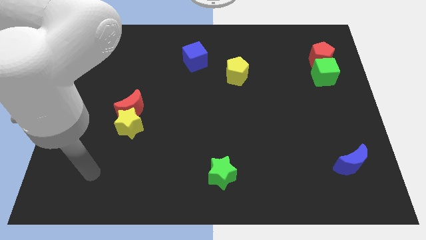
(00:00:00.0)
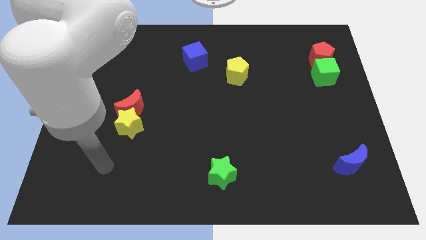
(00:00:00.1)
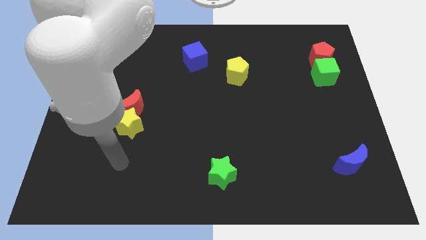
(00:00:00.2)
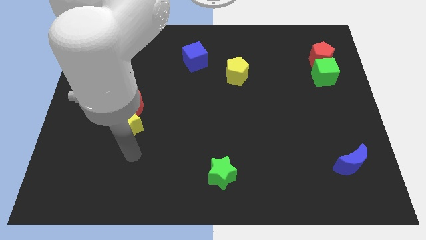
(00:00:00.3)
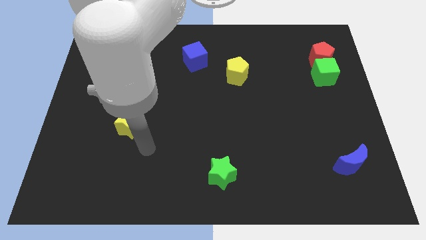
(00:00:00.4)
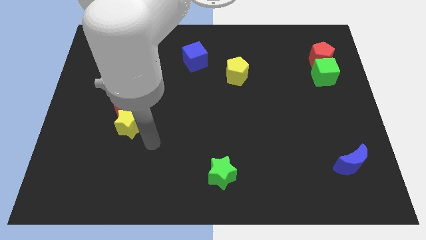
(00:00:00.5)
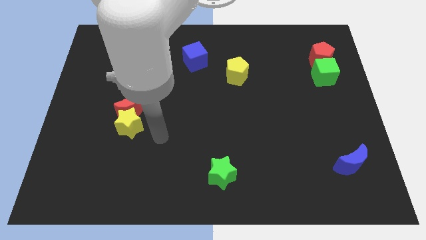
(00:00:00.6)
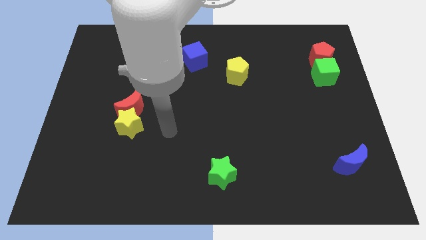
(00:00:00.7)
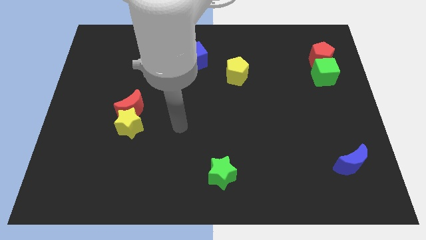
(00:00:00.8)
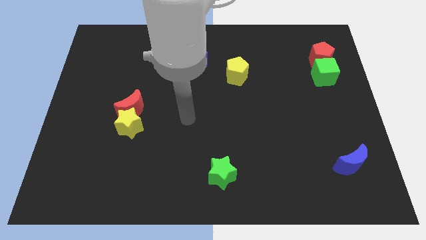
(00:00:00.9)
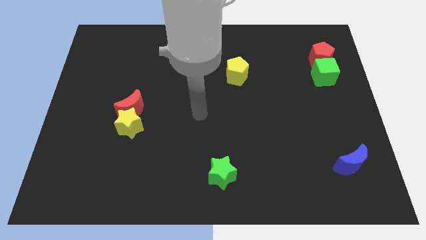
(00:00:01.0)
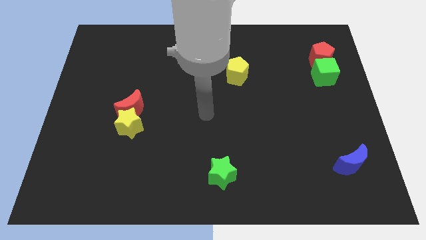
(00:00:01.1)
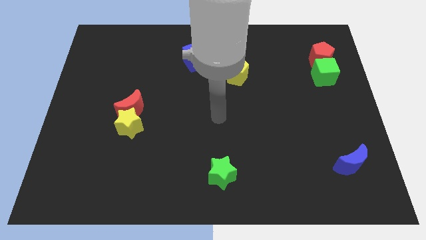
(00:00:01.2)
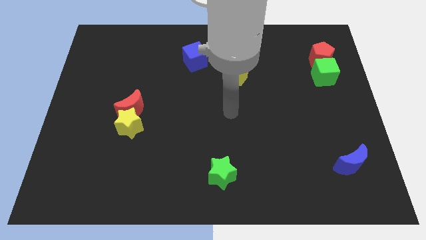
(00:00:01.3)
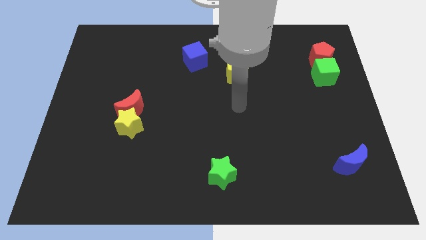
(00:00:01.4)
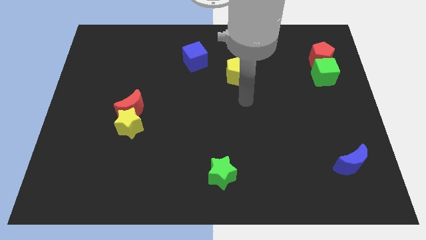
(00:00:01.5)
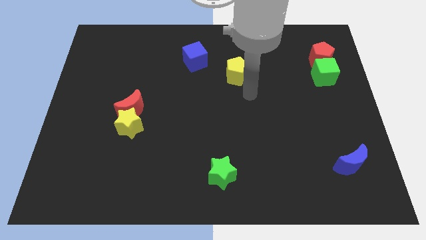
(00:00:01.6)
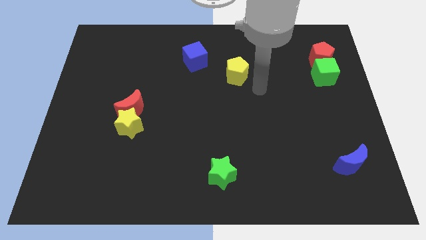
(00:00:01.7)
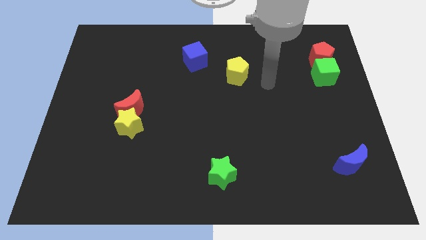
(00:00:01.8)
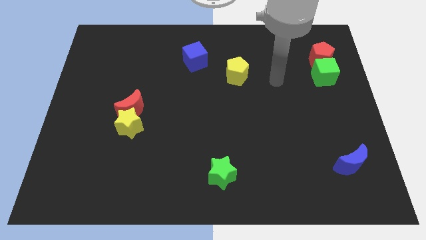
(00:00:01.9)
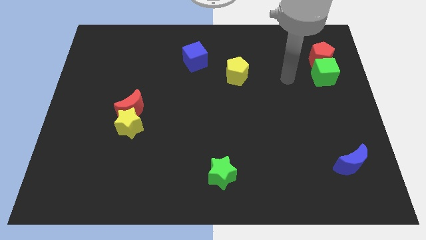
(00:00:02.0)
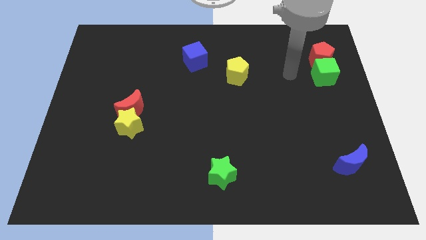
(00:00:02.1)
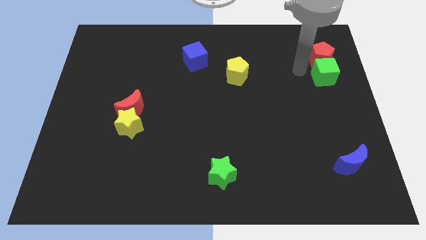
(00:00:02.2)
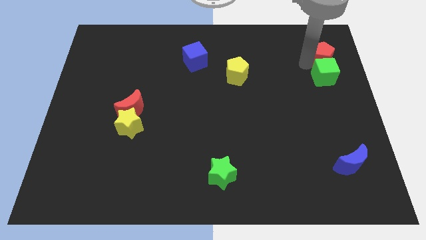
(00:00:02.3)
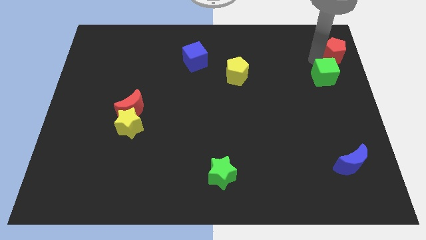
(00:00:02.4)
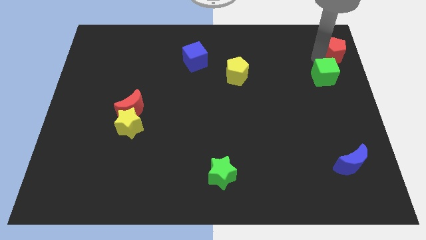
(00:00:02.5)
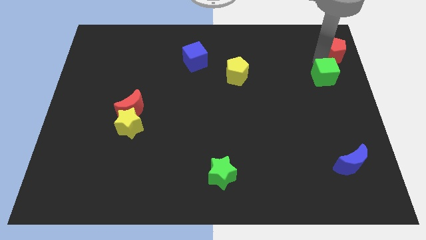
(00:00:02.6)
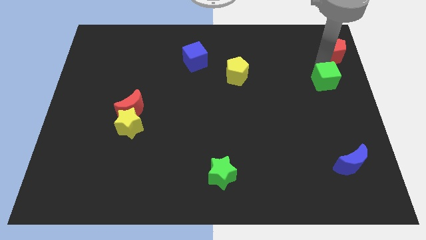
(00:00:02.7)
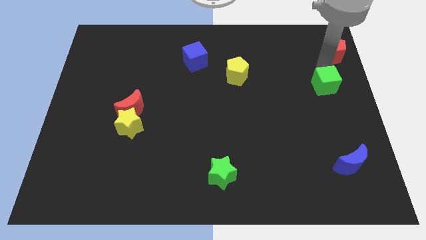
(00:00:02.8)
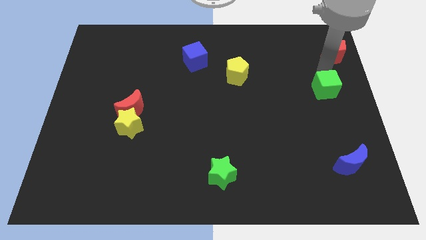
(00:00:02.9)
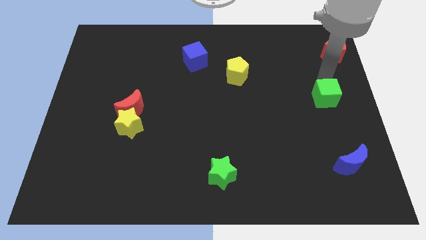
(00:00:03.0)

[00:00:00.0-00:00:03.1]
slide the green cube a little bit down

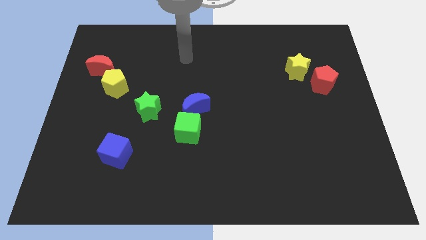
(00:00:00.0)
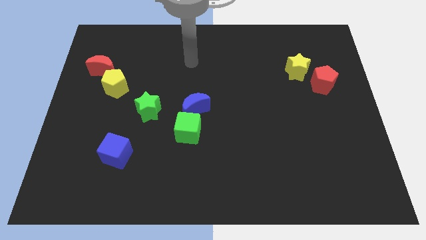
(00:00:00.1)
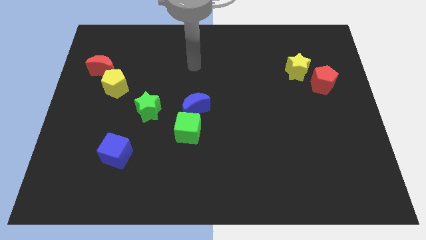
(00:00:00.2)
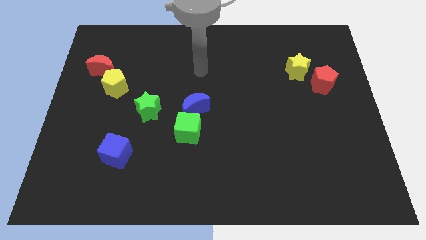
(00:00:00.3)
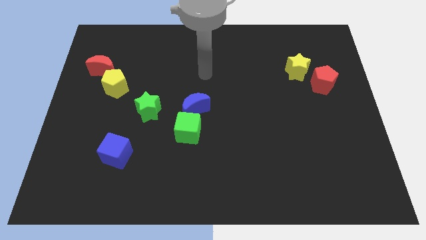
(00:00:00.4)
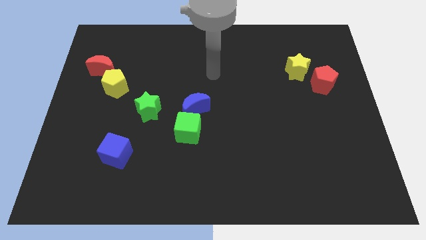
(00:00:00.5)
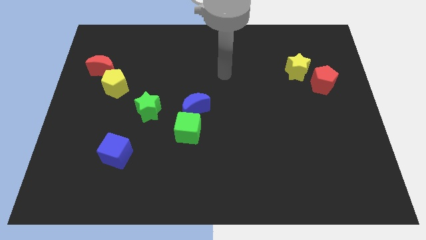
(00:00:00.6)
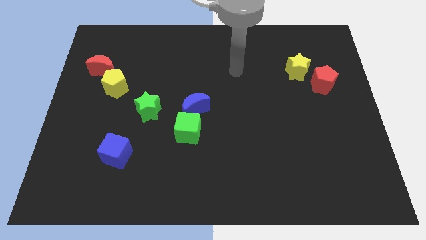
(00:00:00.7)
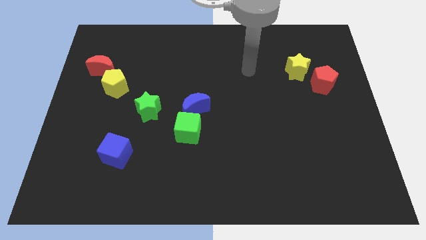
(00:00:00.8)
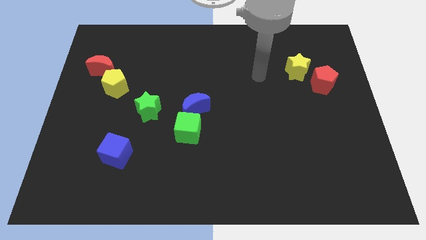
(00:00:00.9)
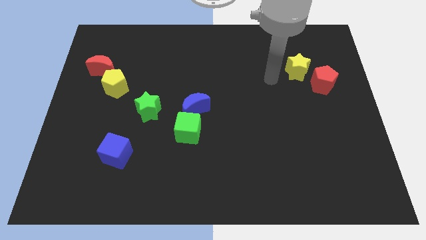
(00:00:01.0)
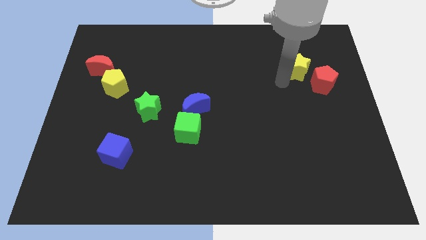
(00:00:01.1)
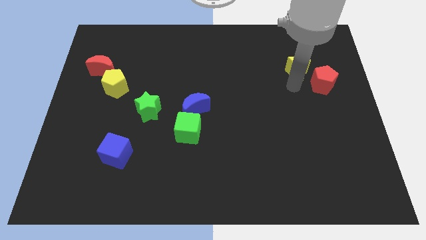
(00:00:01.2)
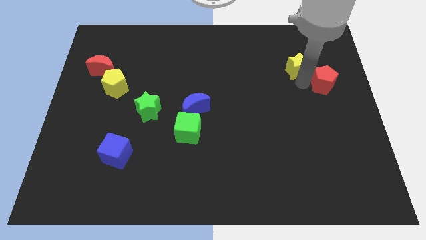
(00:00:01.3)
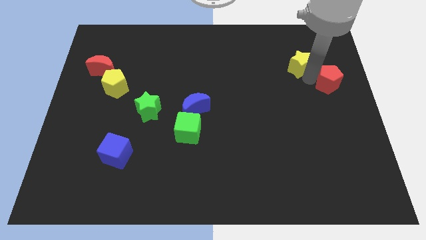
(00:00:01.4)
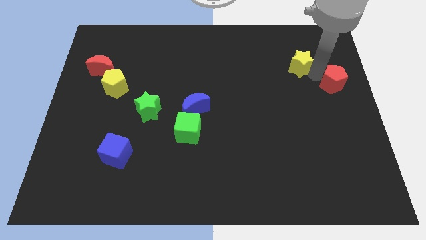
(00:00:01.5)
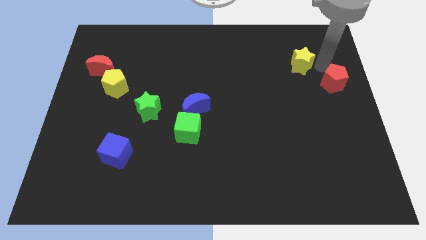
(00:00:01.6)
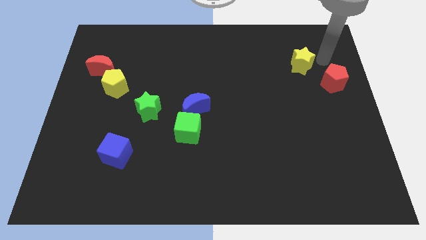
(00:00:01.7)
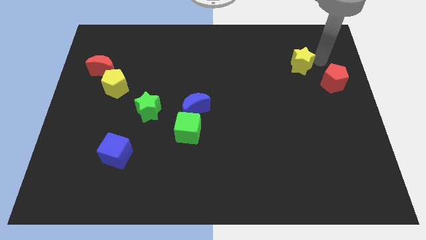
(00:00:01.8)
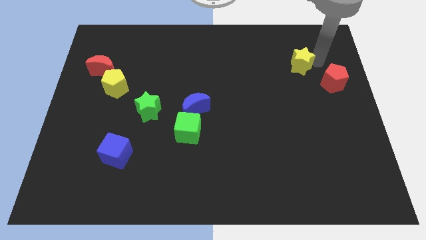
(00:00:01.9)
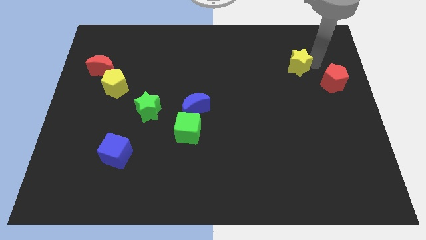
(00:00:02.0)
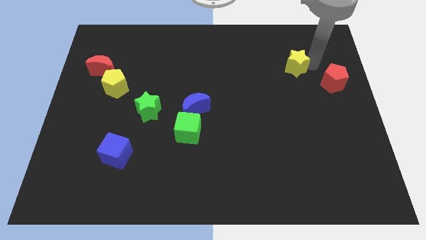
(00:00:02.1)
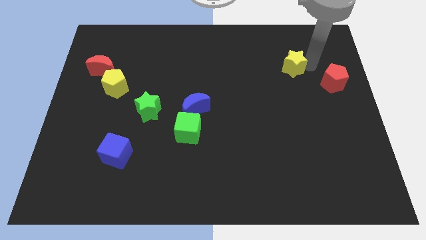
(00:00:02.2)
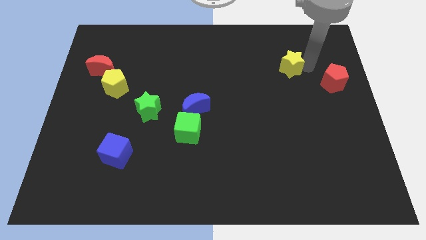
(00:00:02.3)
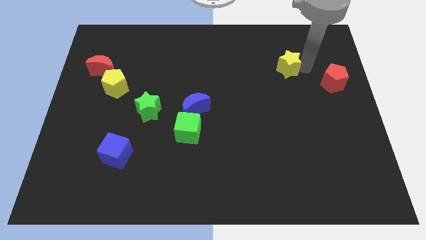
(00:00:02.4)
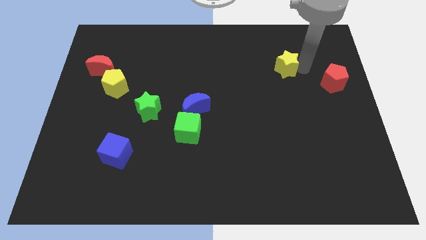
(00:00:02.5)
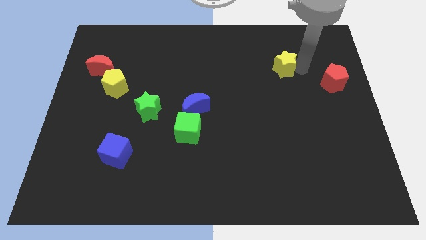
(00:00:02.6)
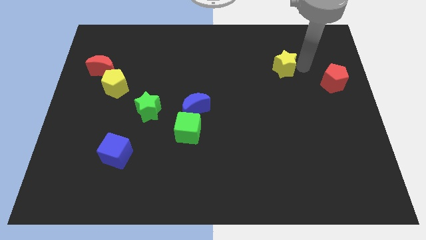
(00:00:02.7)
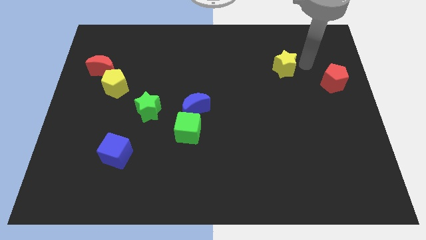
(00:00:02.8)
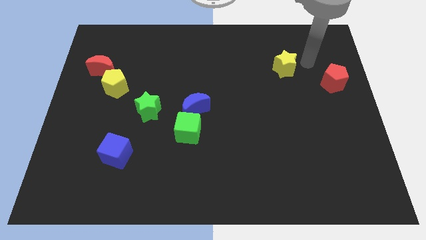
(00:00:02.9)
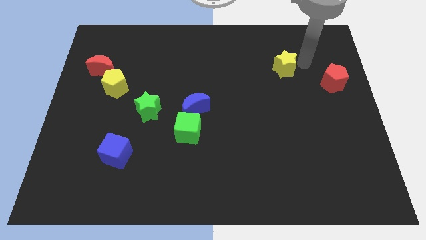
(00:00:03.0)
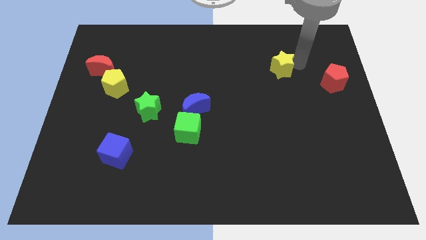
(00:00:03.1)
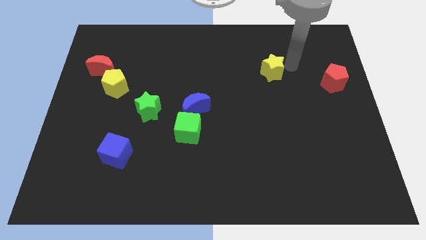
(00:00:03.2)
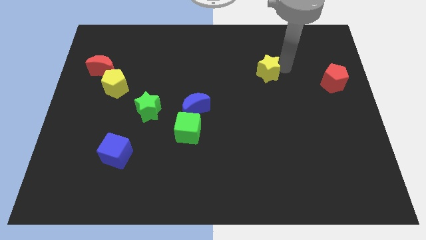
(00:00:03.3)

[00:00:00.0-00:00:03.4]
move the yellow star a little left

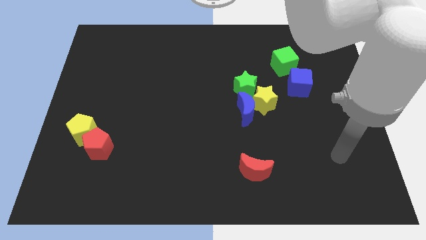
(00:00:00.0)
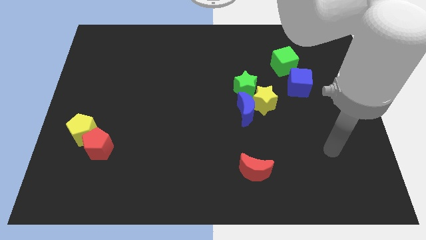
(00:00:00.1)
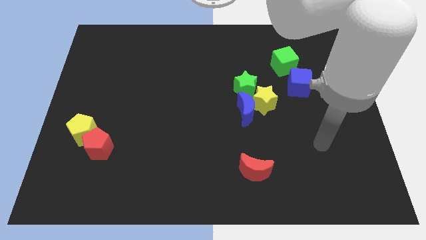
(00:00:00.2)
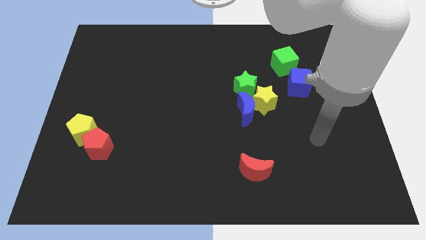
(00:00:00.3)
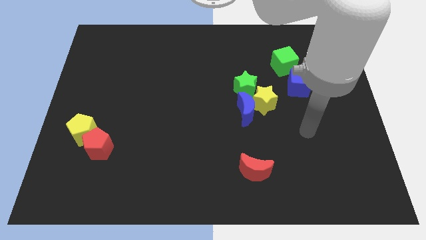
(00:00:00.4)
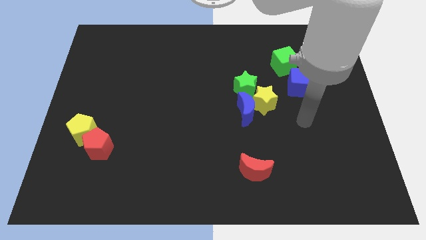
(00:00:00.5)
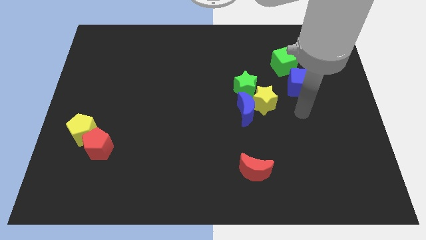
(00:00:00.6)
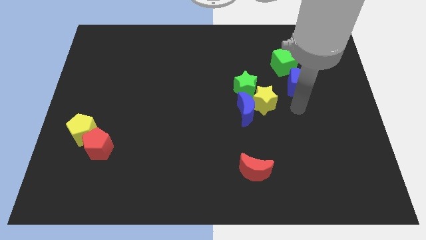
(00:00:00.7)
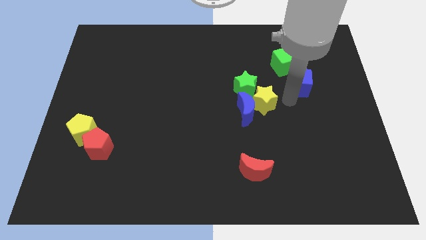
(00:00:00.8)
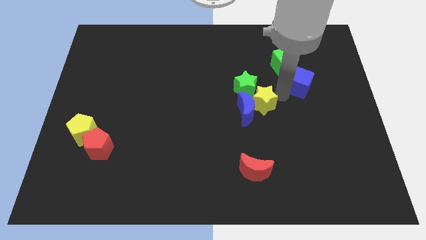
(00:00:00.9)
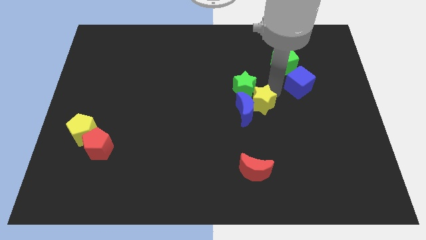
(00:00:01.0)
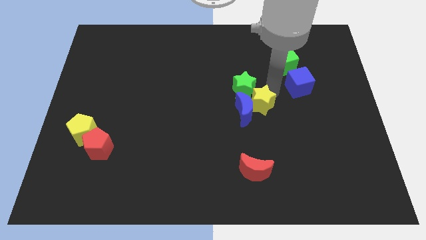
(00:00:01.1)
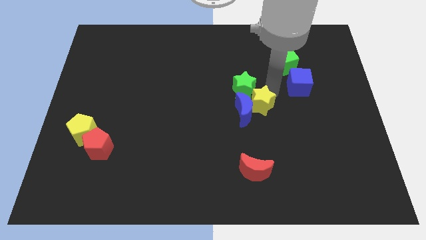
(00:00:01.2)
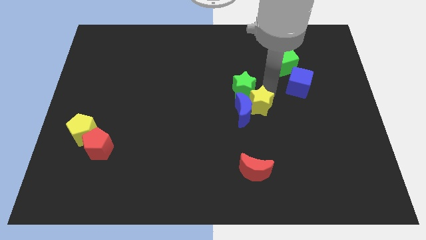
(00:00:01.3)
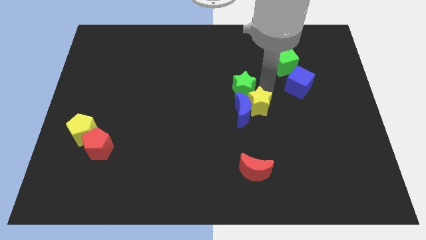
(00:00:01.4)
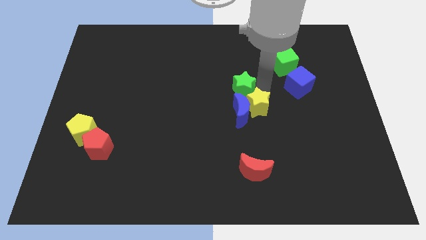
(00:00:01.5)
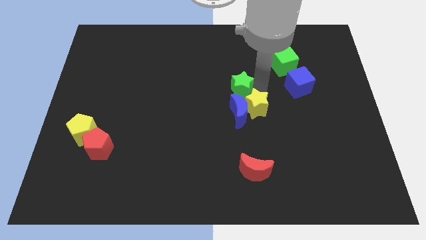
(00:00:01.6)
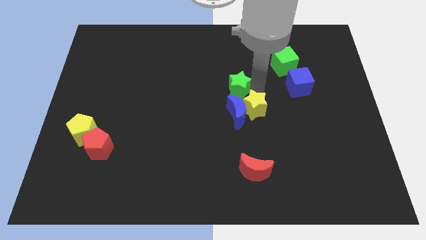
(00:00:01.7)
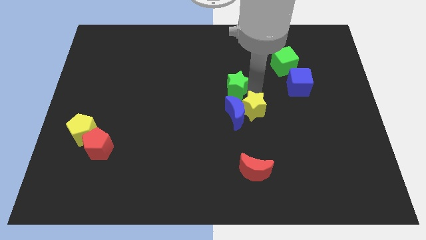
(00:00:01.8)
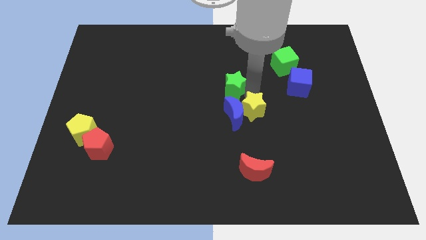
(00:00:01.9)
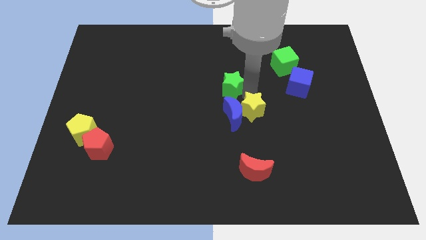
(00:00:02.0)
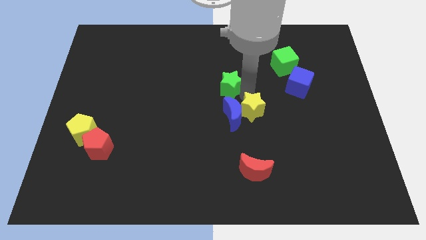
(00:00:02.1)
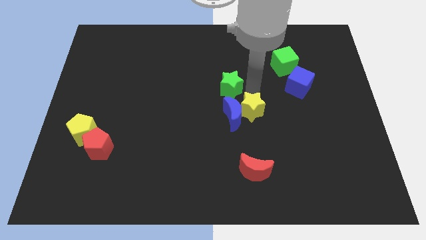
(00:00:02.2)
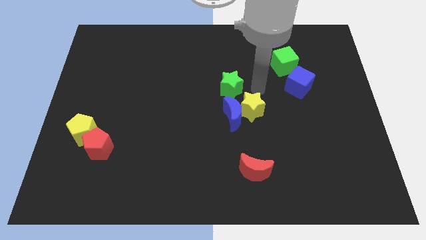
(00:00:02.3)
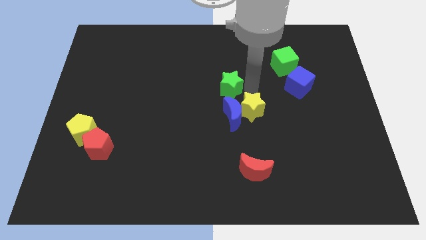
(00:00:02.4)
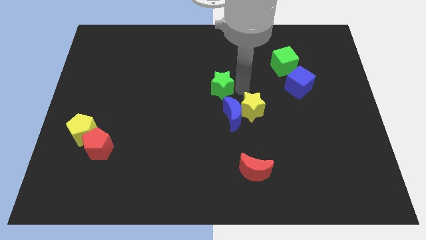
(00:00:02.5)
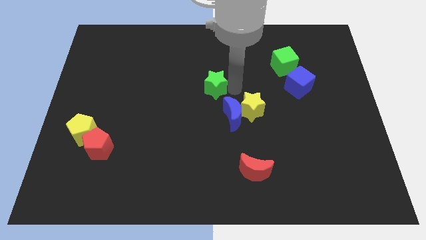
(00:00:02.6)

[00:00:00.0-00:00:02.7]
push the green star a little bit to the left
